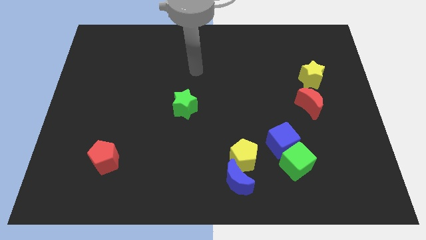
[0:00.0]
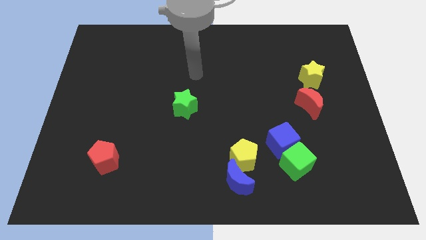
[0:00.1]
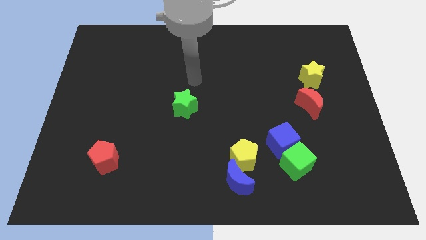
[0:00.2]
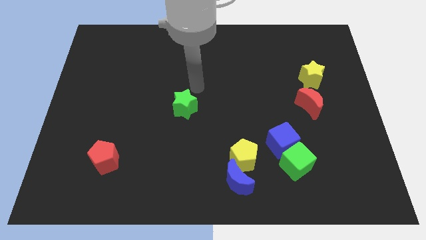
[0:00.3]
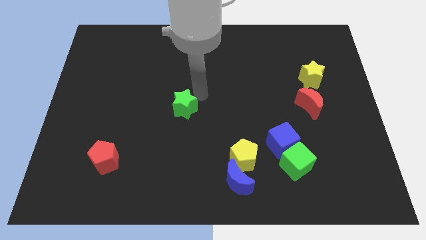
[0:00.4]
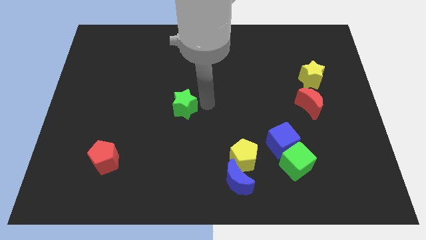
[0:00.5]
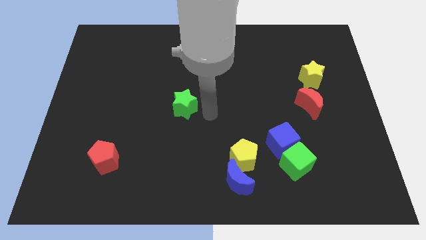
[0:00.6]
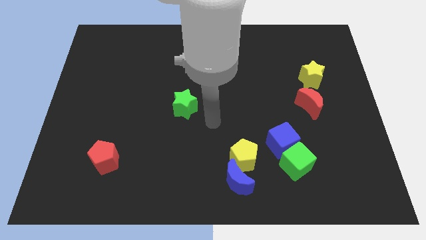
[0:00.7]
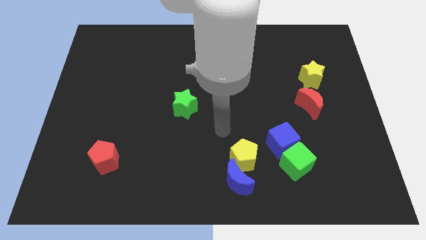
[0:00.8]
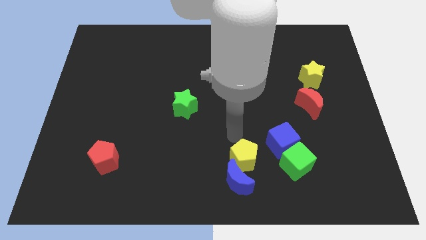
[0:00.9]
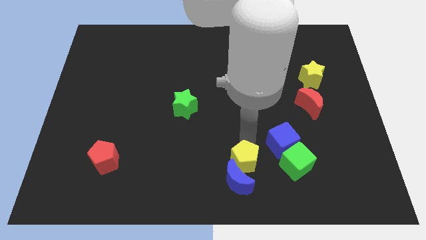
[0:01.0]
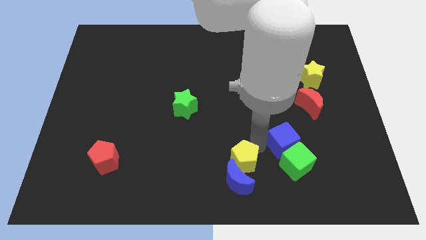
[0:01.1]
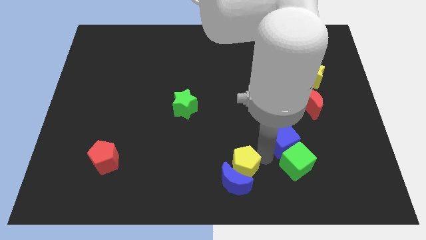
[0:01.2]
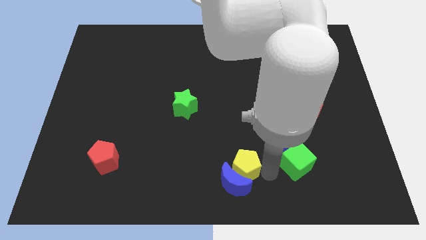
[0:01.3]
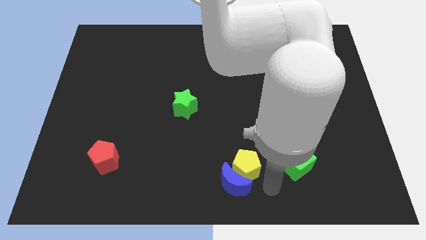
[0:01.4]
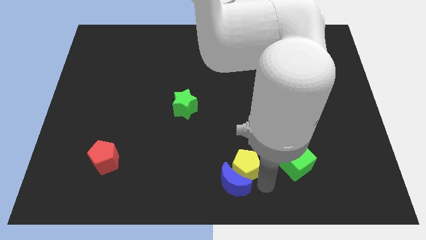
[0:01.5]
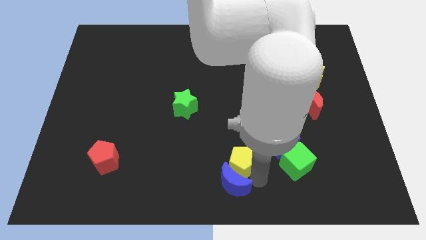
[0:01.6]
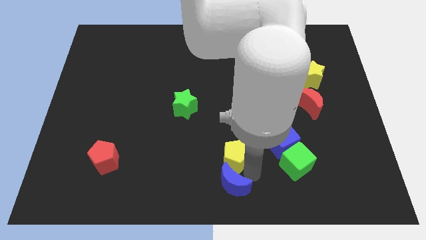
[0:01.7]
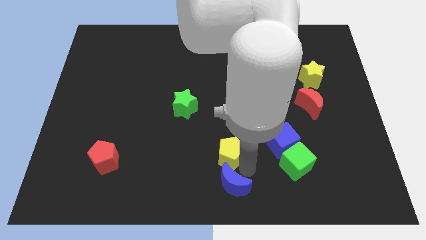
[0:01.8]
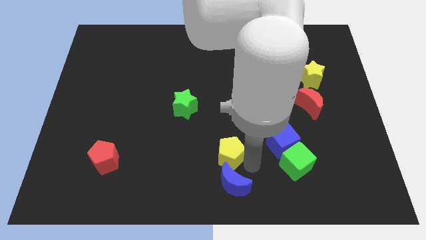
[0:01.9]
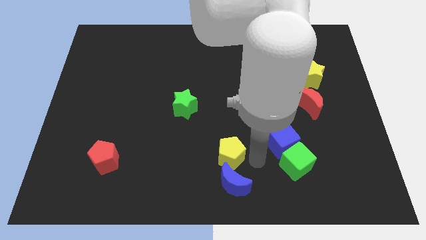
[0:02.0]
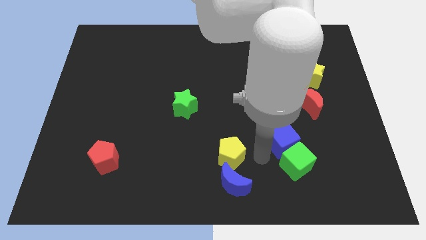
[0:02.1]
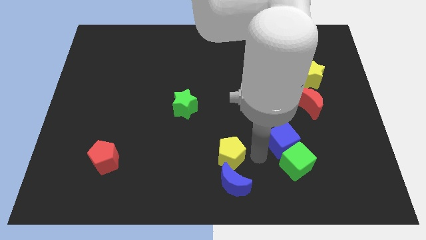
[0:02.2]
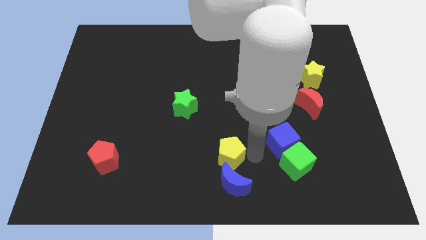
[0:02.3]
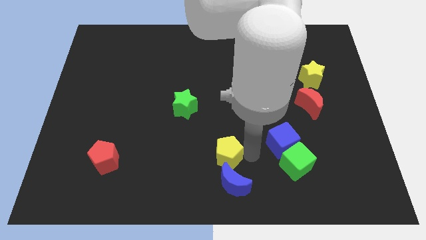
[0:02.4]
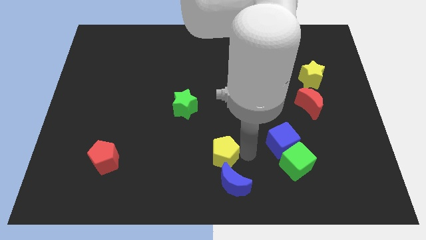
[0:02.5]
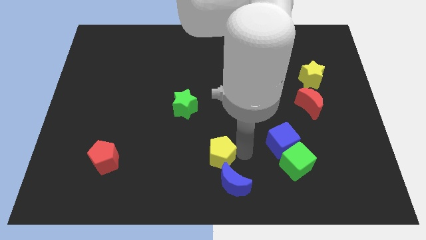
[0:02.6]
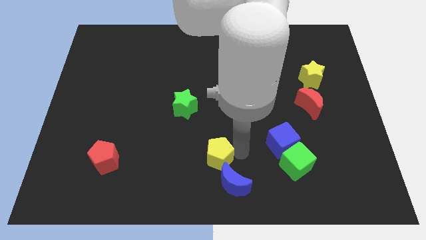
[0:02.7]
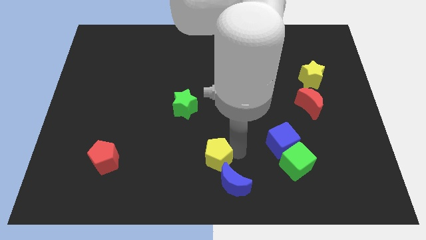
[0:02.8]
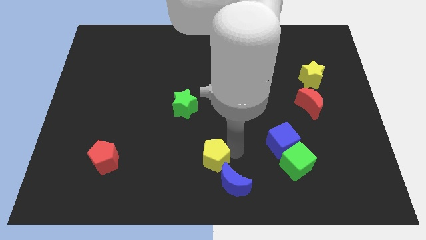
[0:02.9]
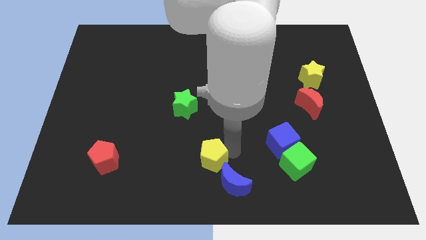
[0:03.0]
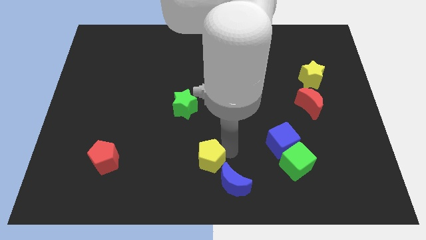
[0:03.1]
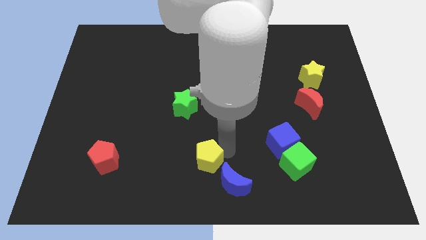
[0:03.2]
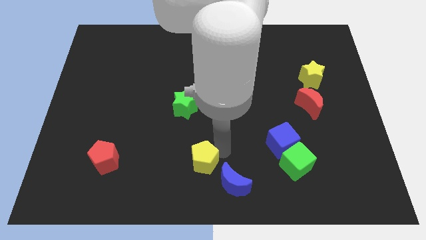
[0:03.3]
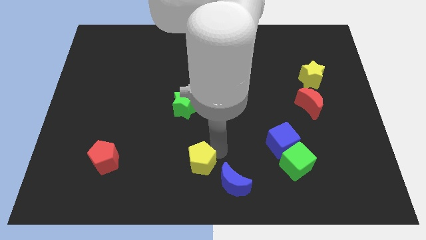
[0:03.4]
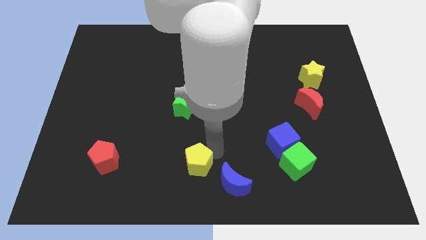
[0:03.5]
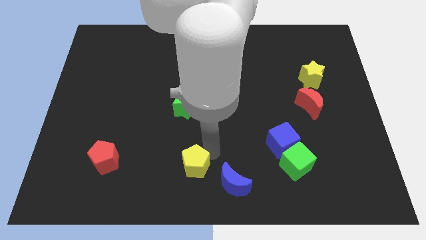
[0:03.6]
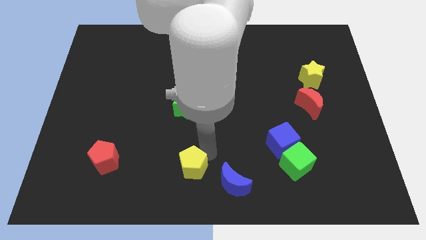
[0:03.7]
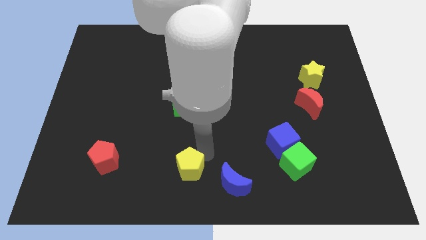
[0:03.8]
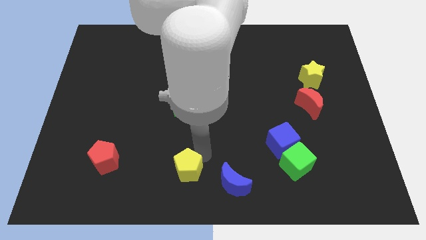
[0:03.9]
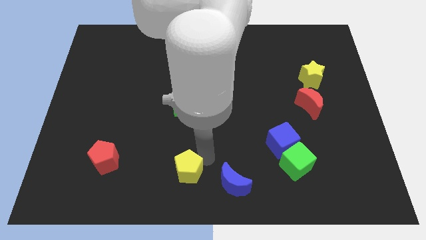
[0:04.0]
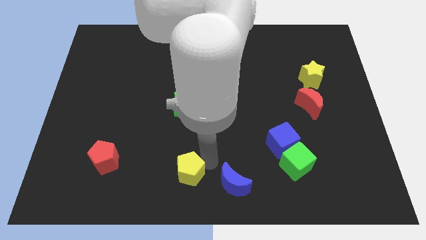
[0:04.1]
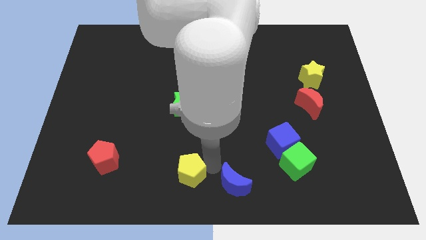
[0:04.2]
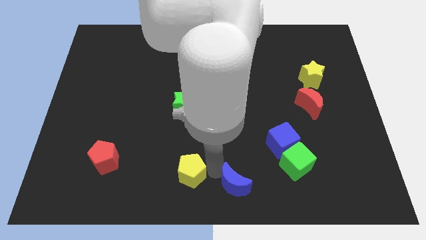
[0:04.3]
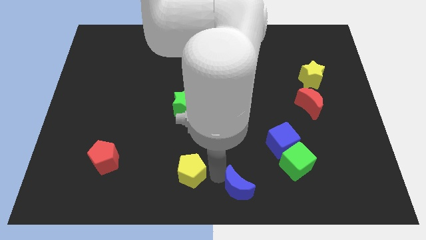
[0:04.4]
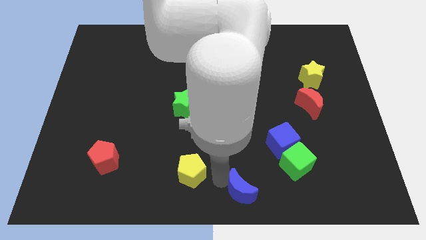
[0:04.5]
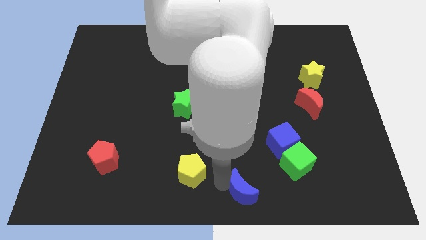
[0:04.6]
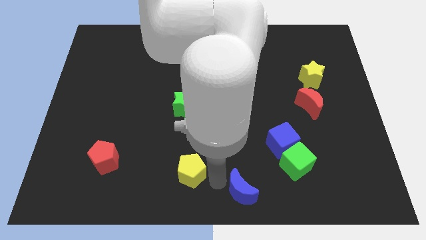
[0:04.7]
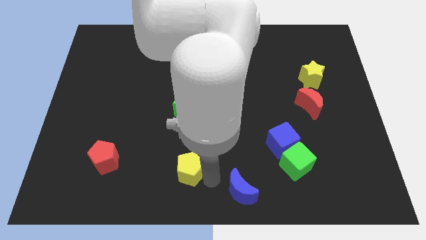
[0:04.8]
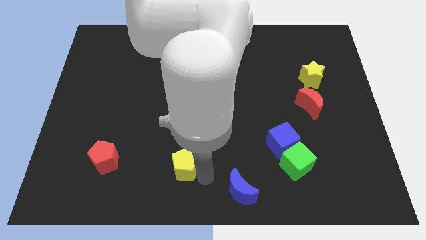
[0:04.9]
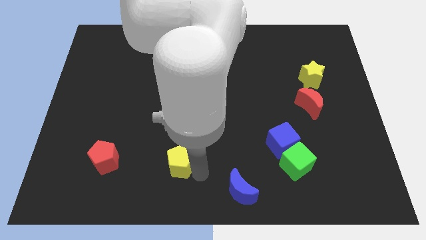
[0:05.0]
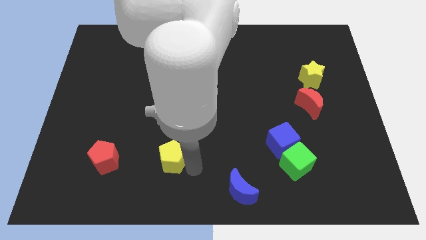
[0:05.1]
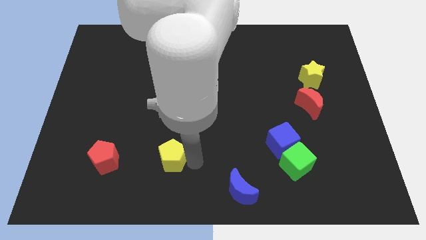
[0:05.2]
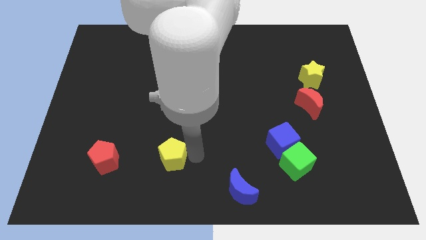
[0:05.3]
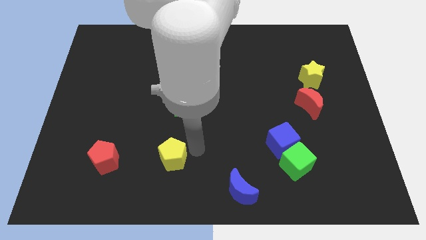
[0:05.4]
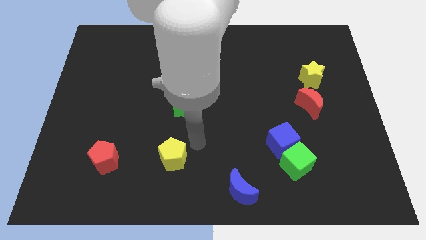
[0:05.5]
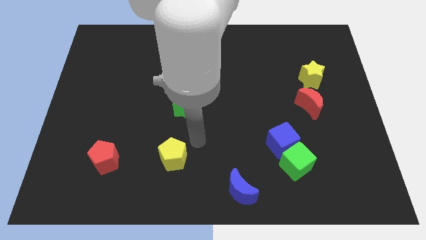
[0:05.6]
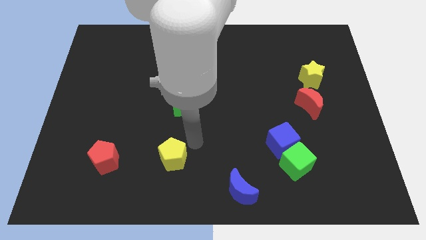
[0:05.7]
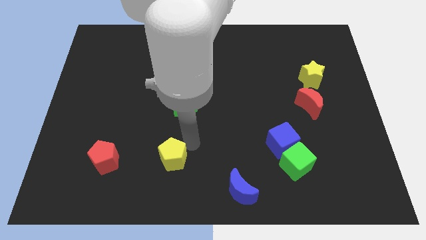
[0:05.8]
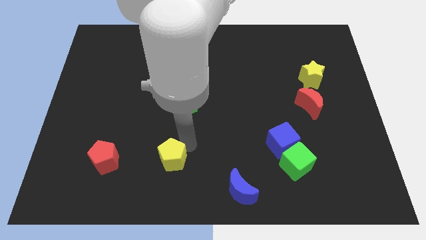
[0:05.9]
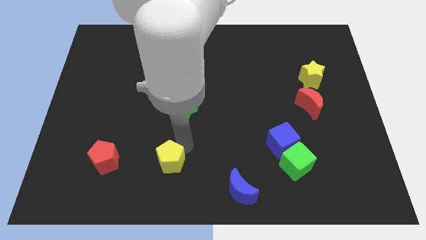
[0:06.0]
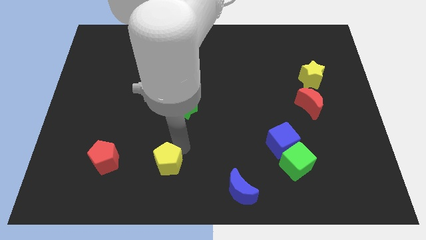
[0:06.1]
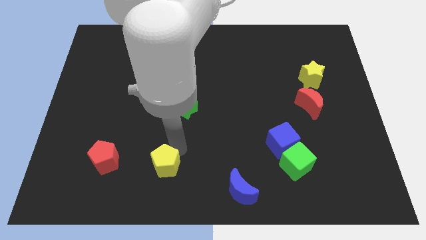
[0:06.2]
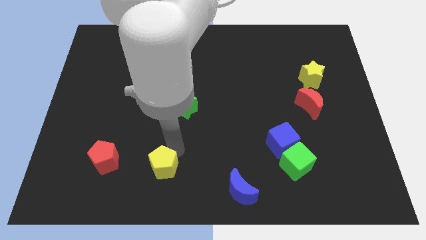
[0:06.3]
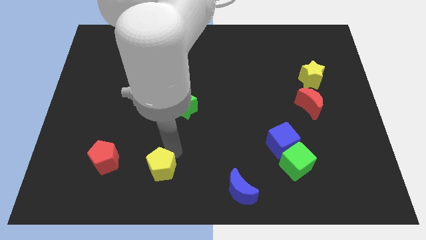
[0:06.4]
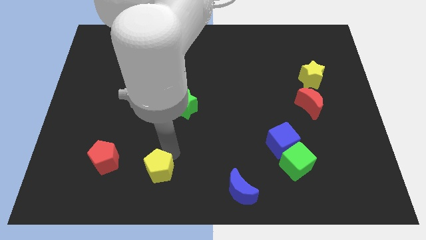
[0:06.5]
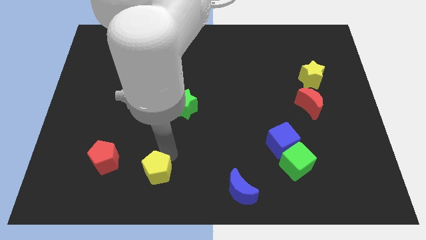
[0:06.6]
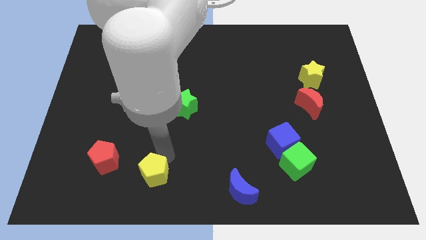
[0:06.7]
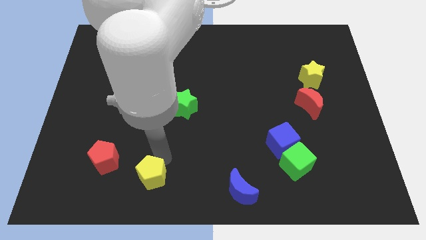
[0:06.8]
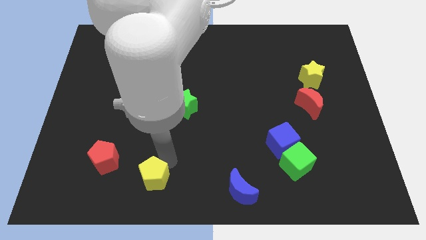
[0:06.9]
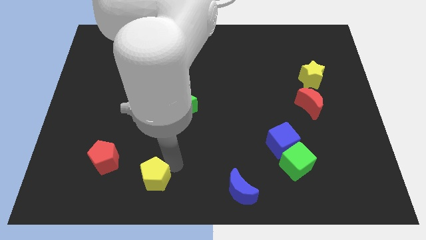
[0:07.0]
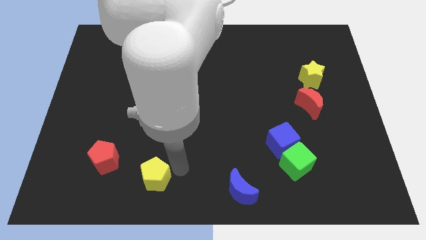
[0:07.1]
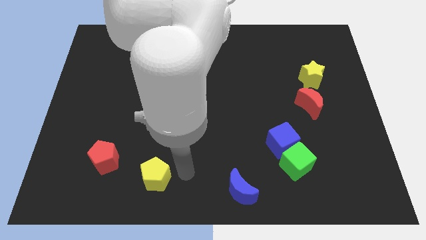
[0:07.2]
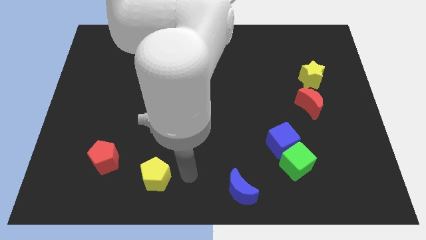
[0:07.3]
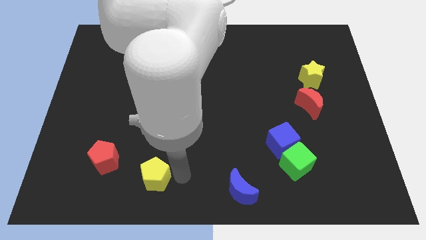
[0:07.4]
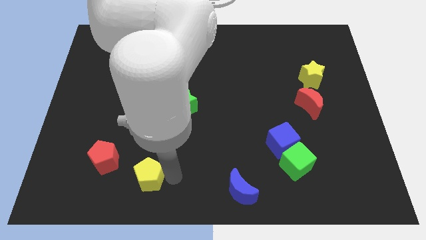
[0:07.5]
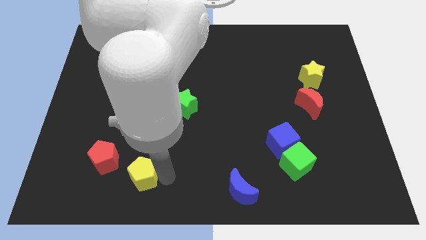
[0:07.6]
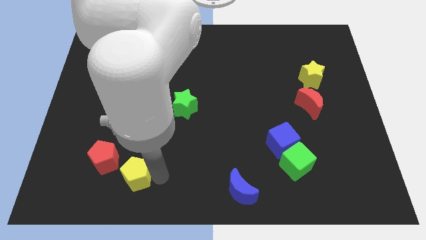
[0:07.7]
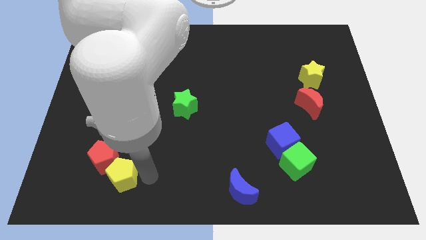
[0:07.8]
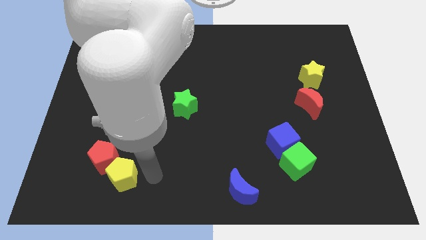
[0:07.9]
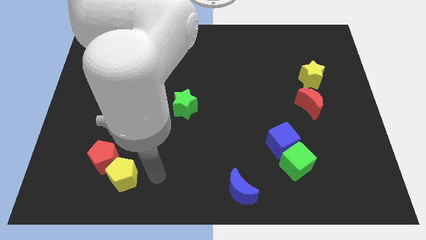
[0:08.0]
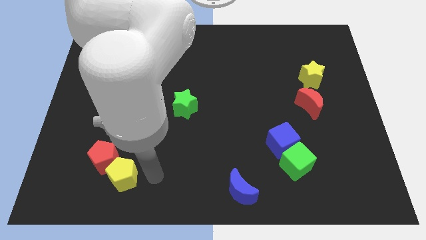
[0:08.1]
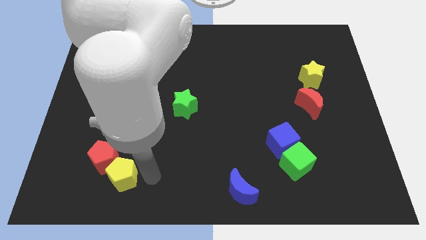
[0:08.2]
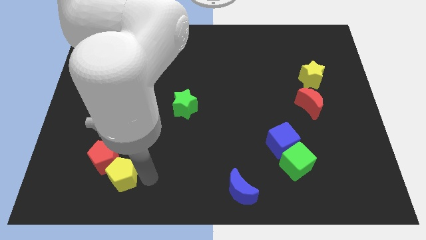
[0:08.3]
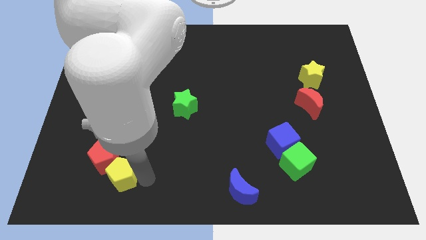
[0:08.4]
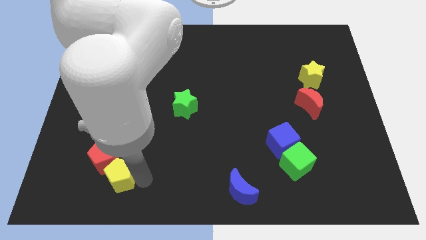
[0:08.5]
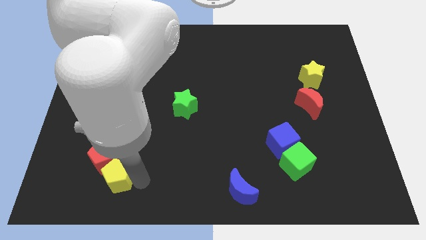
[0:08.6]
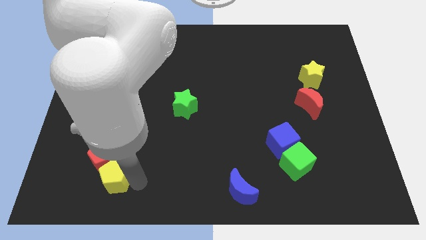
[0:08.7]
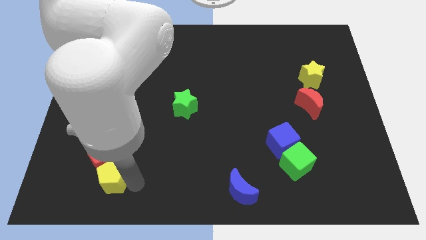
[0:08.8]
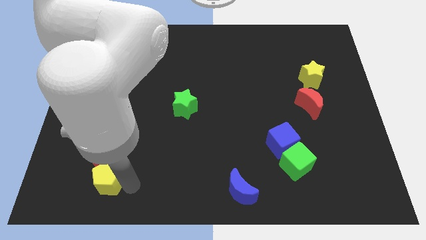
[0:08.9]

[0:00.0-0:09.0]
slide the yellow pentagon to the bottom left side of the red pentagon
